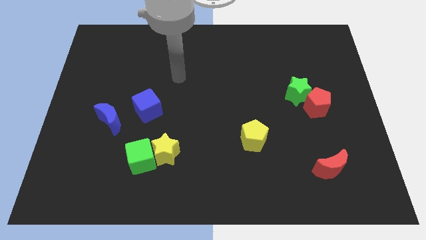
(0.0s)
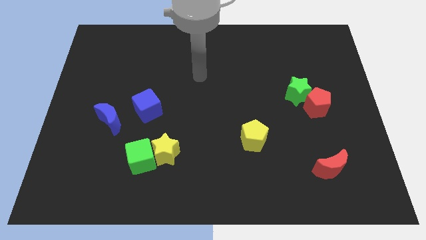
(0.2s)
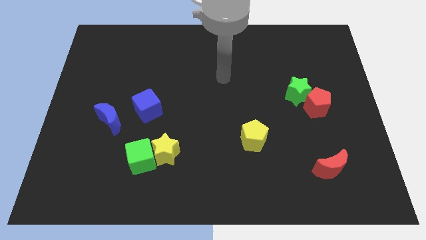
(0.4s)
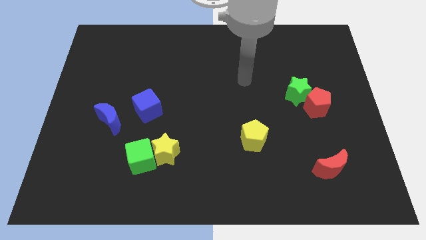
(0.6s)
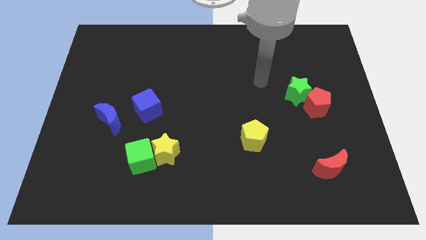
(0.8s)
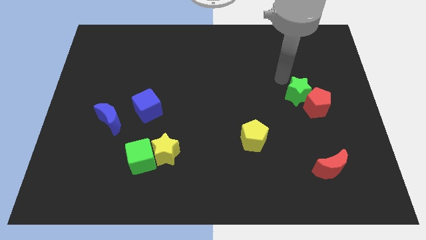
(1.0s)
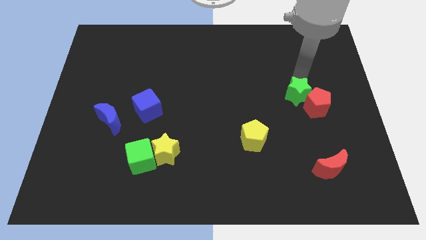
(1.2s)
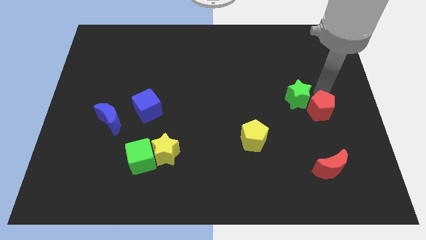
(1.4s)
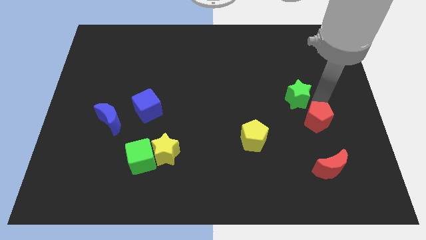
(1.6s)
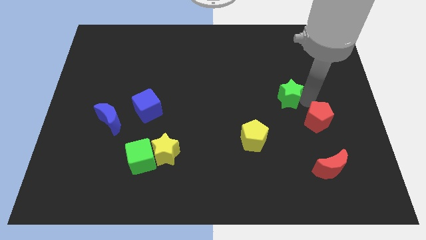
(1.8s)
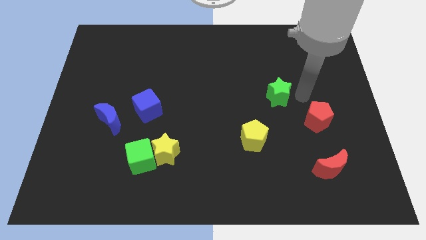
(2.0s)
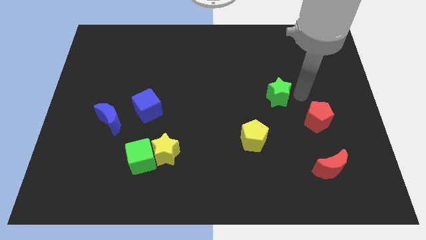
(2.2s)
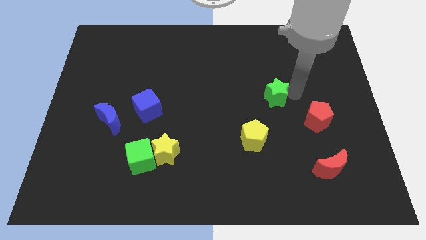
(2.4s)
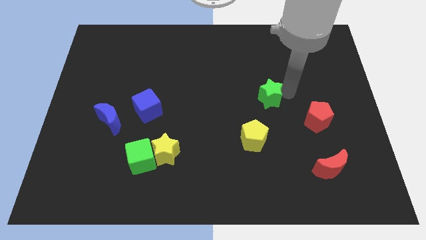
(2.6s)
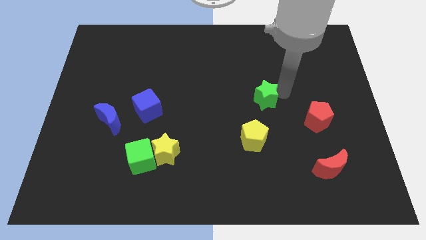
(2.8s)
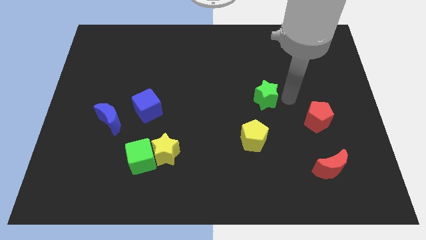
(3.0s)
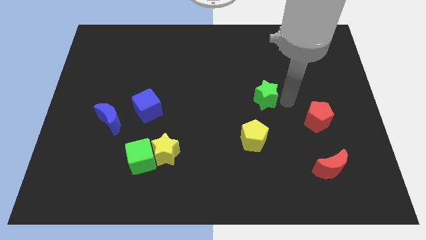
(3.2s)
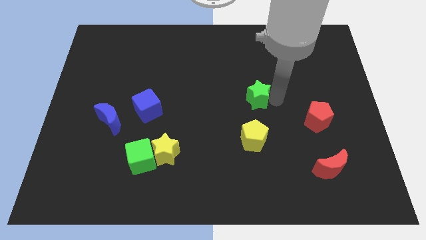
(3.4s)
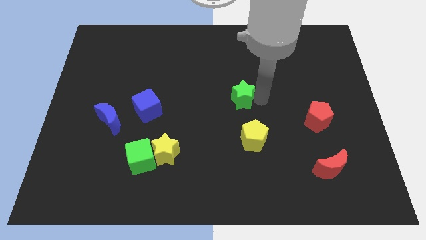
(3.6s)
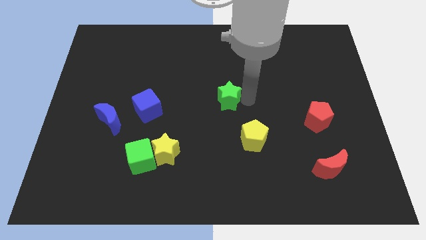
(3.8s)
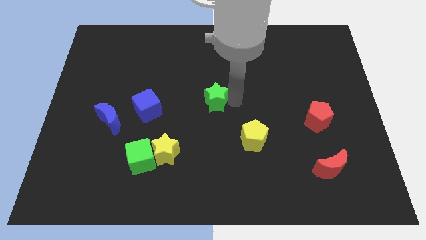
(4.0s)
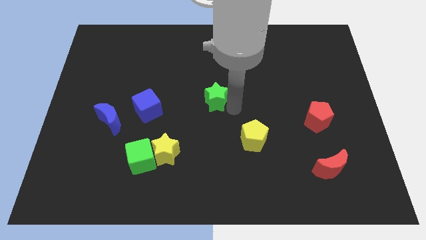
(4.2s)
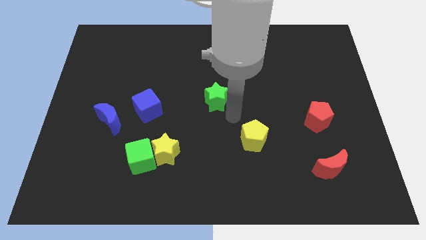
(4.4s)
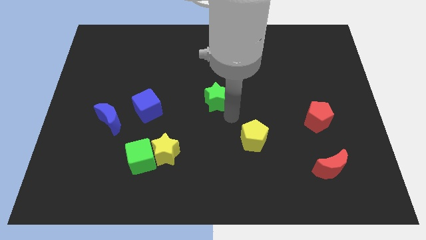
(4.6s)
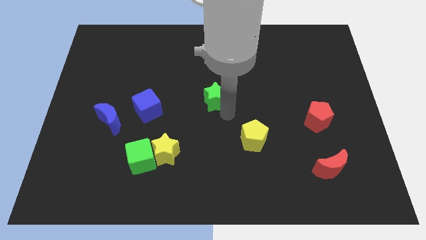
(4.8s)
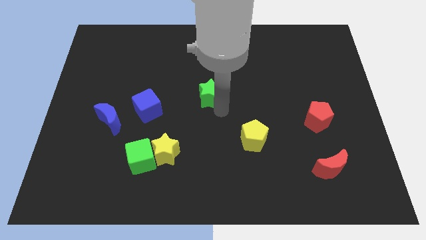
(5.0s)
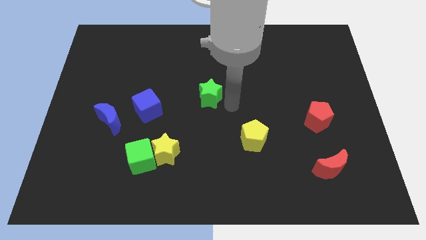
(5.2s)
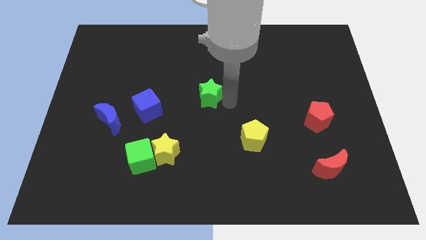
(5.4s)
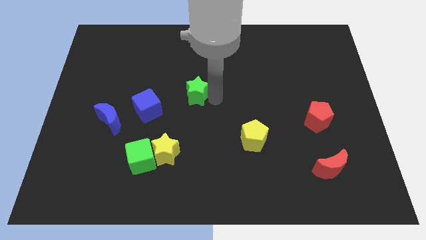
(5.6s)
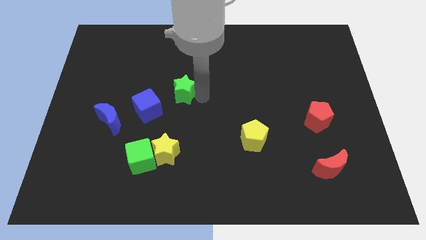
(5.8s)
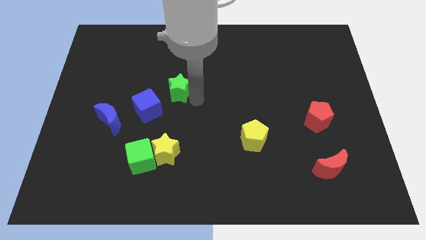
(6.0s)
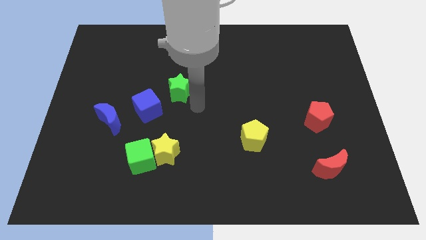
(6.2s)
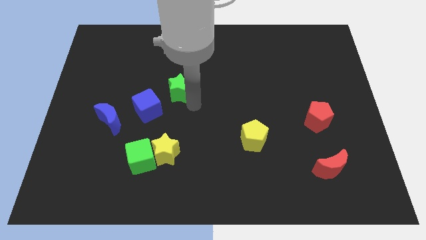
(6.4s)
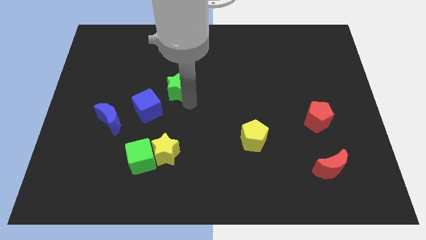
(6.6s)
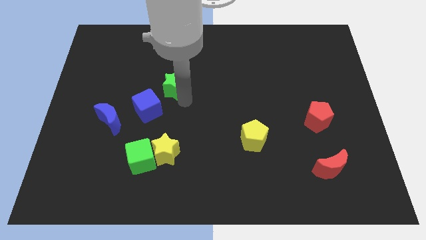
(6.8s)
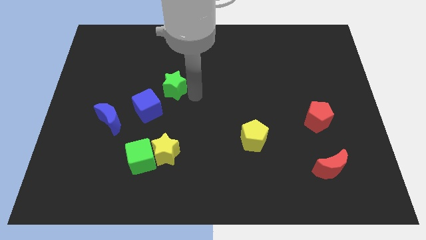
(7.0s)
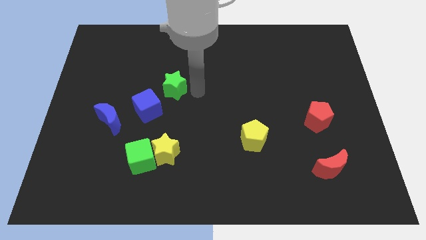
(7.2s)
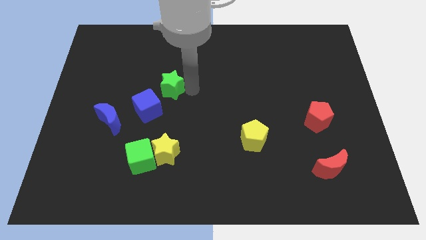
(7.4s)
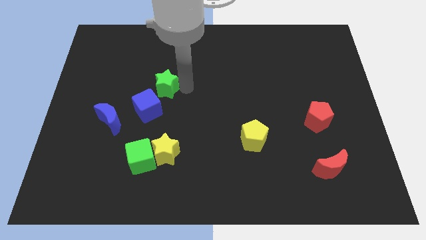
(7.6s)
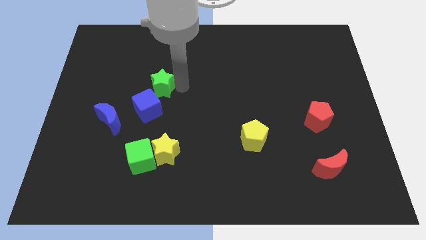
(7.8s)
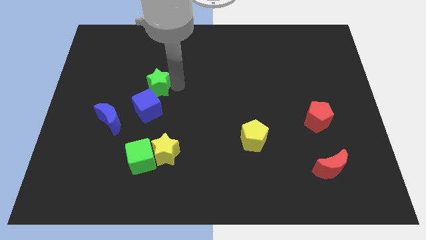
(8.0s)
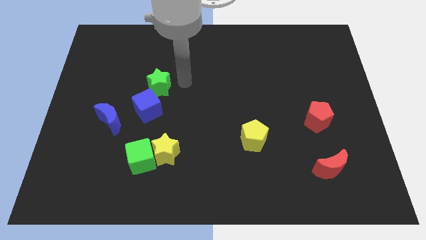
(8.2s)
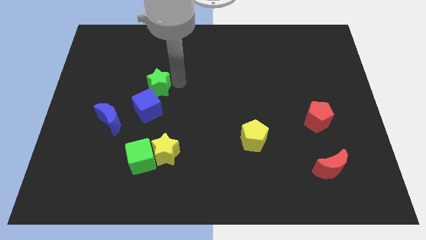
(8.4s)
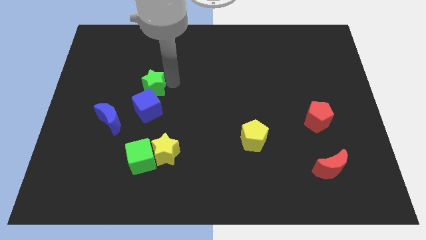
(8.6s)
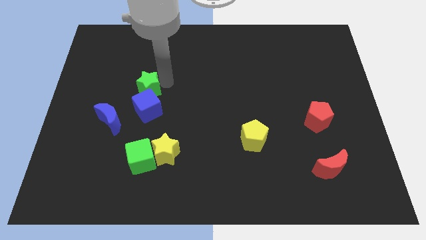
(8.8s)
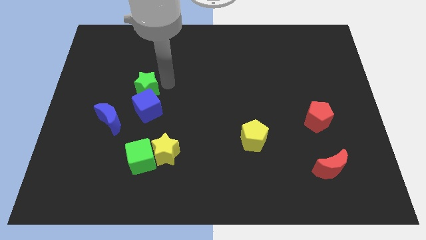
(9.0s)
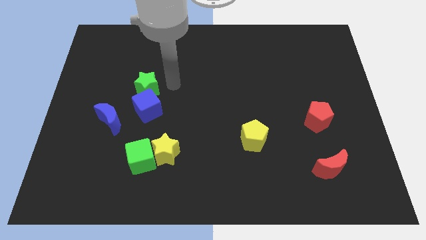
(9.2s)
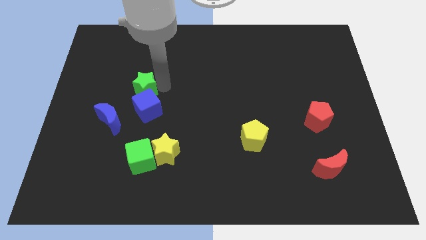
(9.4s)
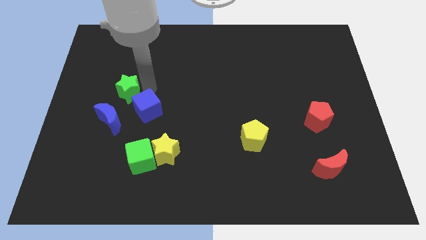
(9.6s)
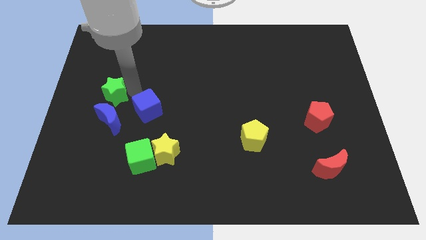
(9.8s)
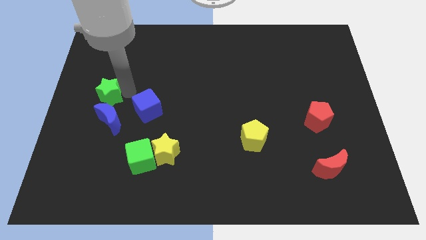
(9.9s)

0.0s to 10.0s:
put the green star to the left side

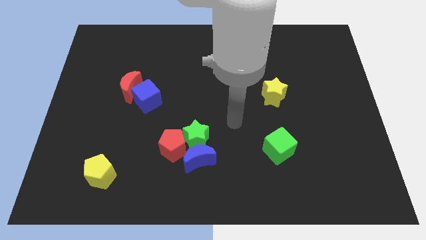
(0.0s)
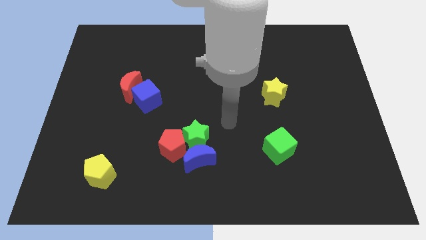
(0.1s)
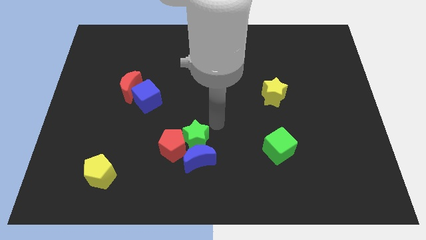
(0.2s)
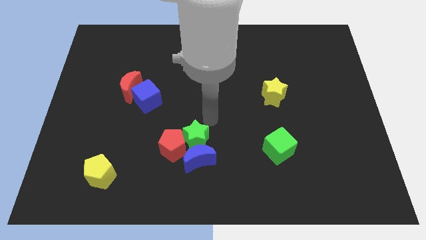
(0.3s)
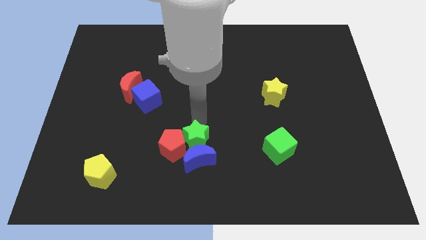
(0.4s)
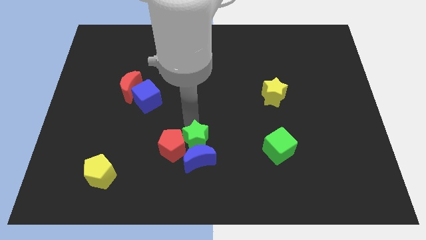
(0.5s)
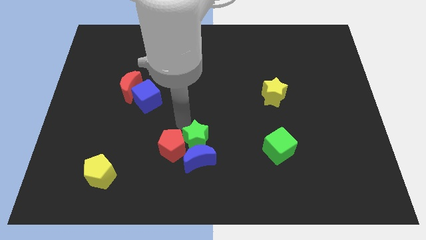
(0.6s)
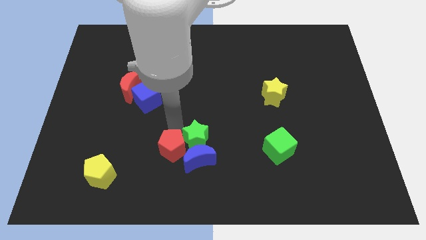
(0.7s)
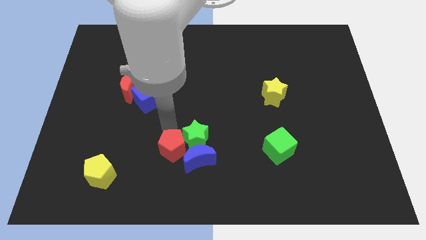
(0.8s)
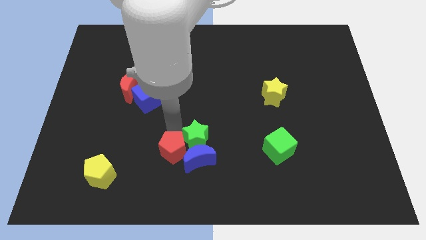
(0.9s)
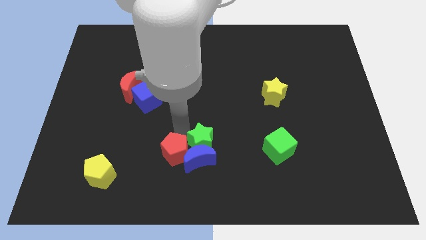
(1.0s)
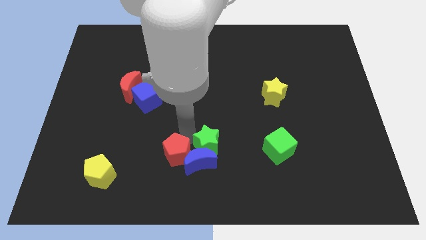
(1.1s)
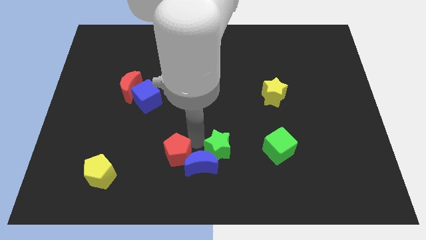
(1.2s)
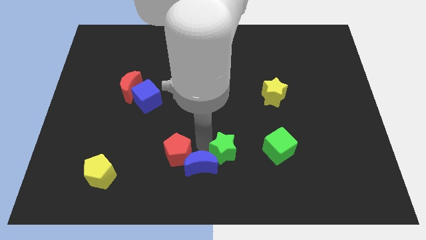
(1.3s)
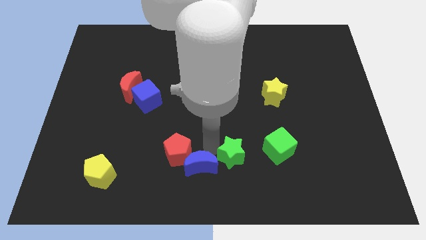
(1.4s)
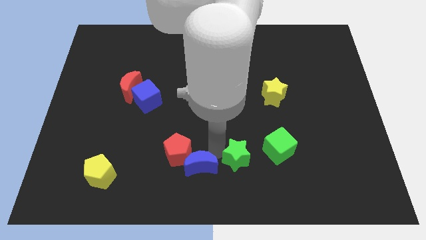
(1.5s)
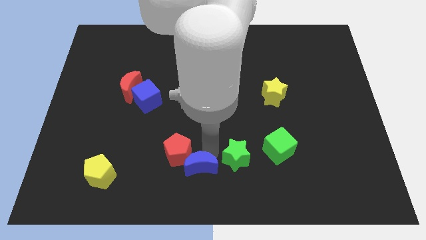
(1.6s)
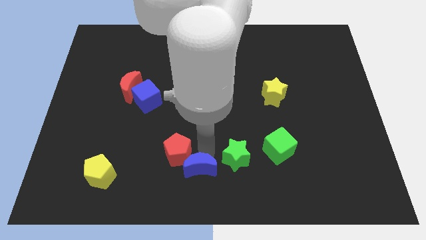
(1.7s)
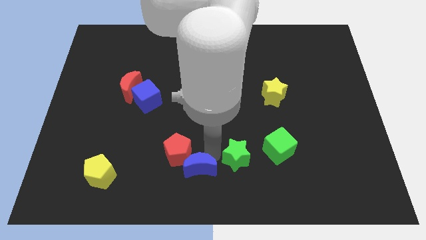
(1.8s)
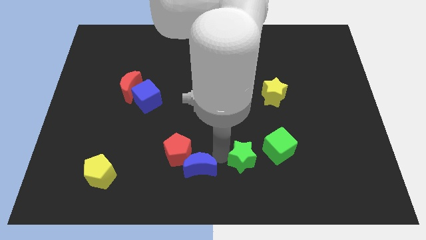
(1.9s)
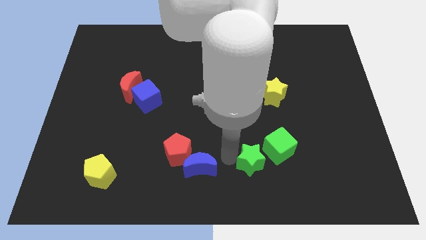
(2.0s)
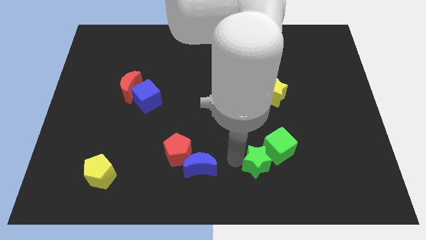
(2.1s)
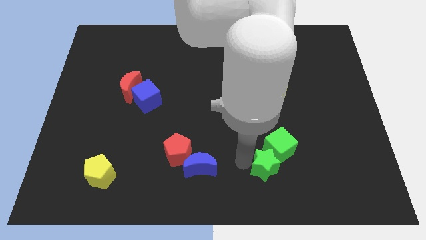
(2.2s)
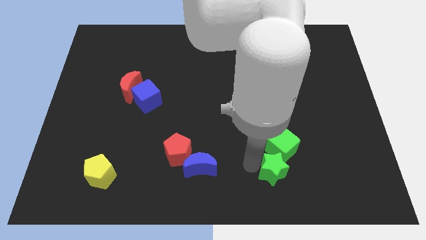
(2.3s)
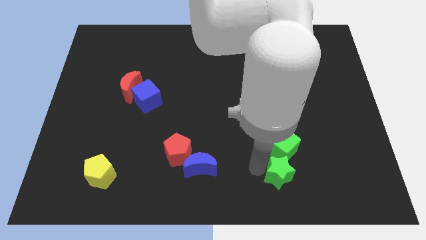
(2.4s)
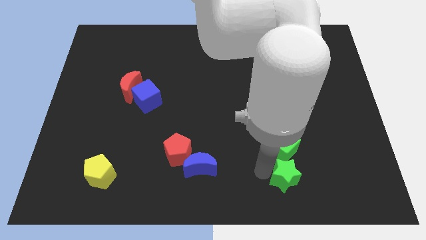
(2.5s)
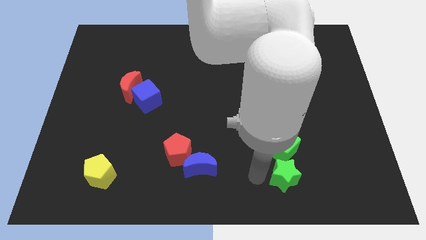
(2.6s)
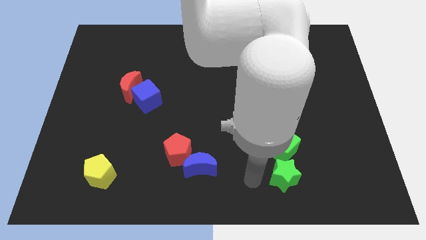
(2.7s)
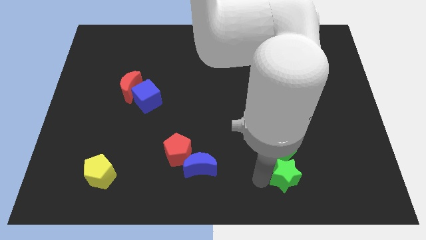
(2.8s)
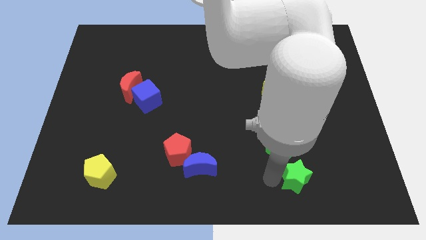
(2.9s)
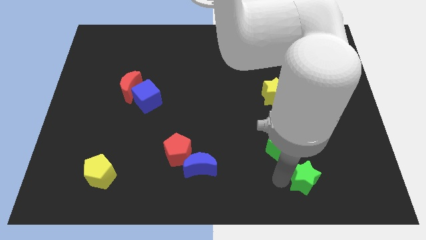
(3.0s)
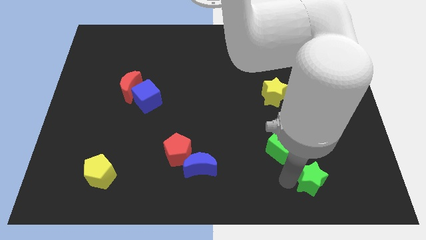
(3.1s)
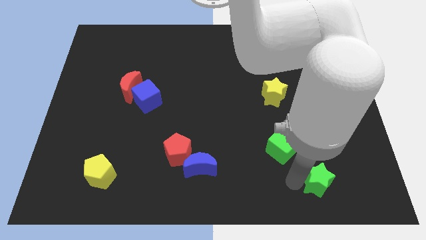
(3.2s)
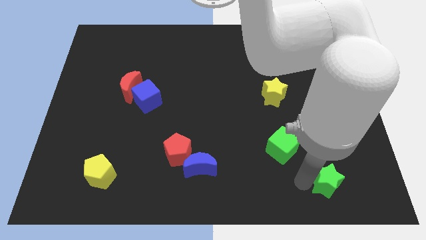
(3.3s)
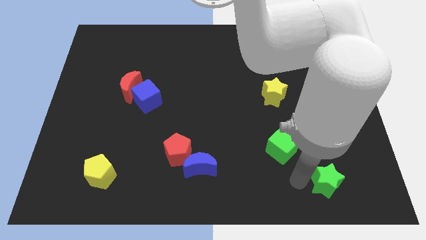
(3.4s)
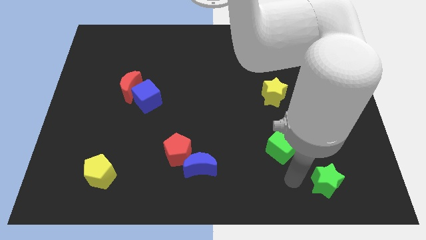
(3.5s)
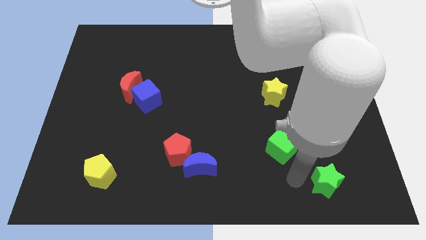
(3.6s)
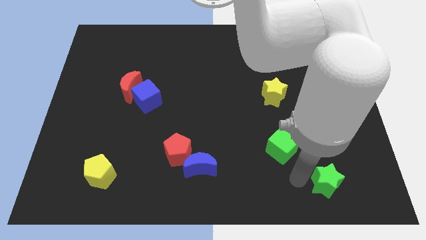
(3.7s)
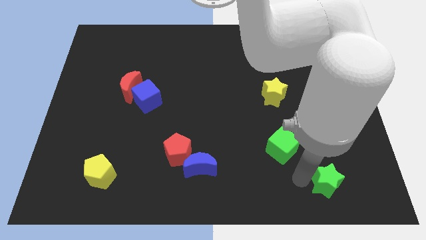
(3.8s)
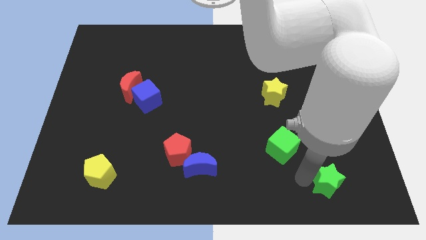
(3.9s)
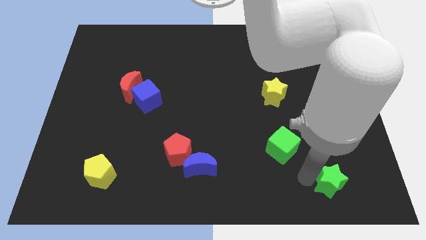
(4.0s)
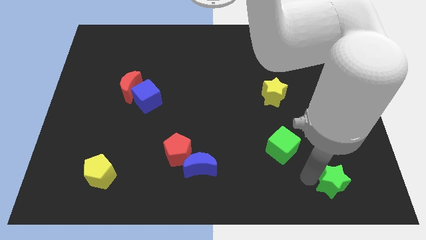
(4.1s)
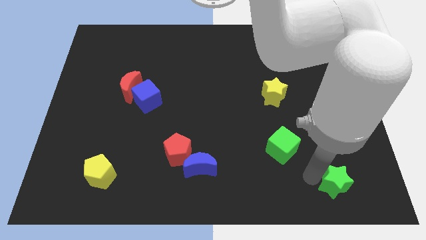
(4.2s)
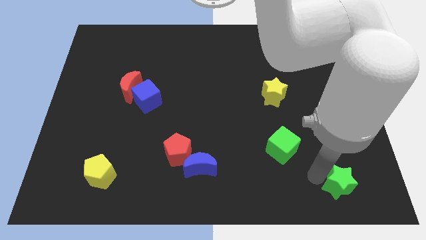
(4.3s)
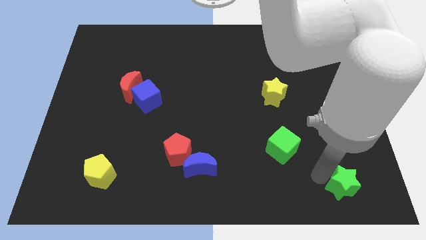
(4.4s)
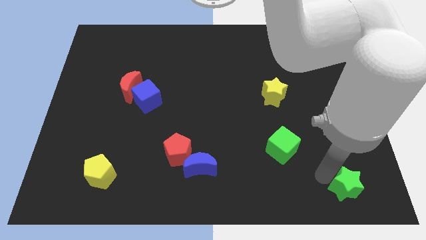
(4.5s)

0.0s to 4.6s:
slide the green star to the bottom right
